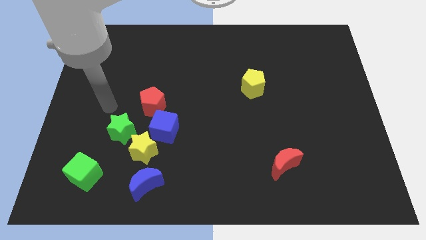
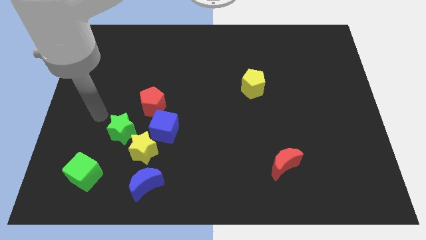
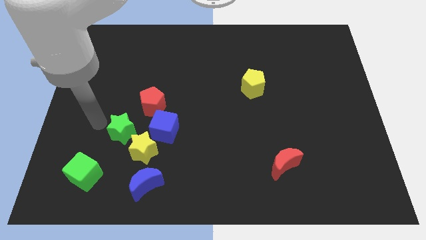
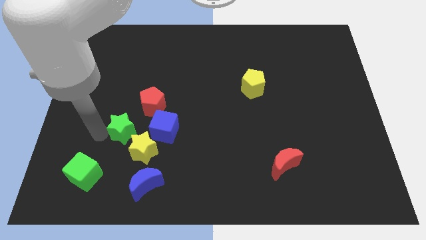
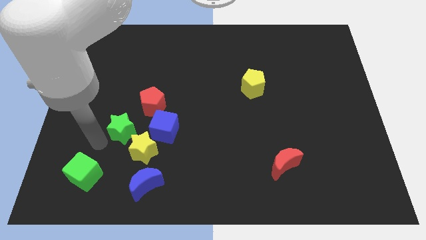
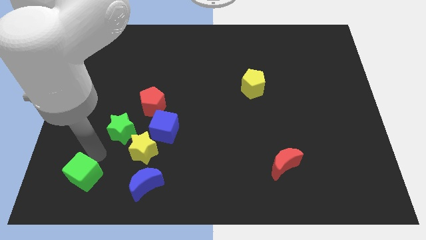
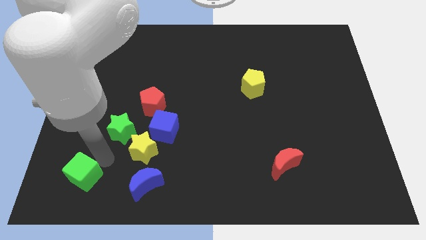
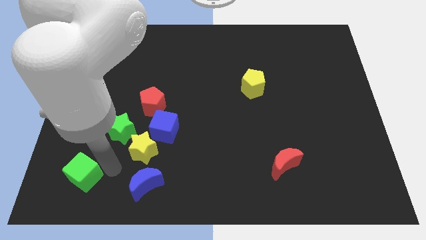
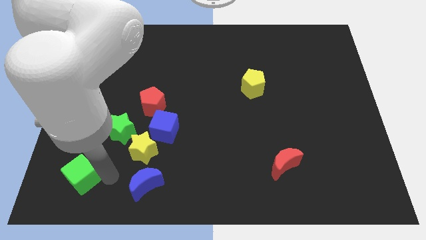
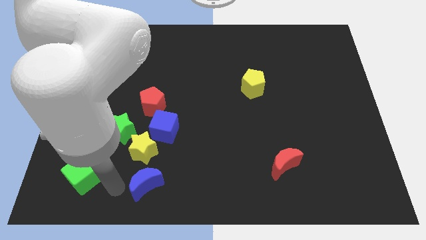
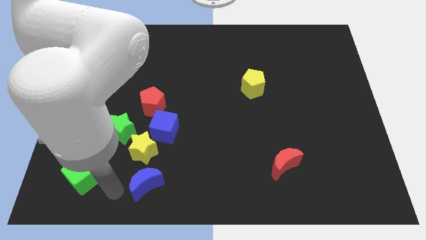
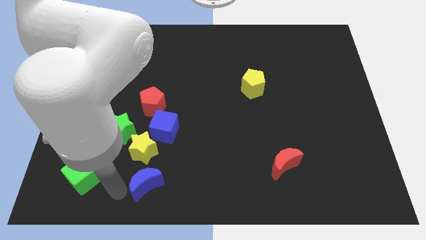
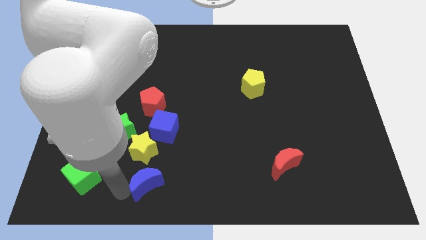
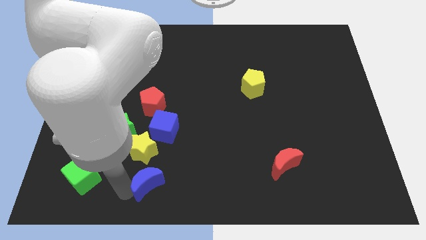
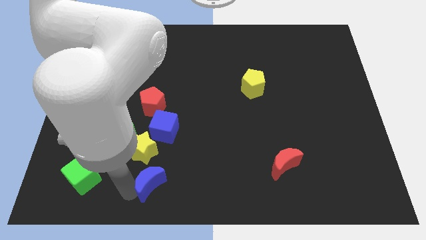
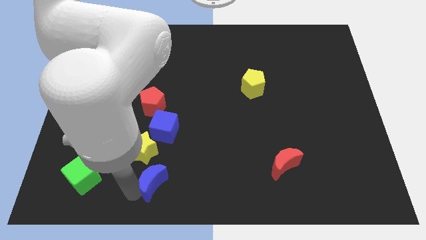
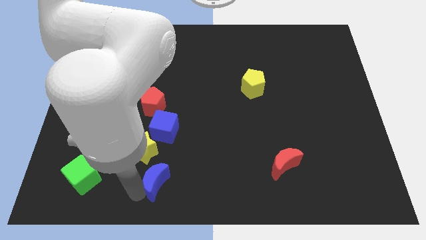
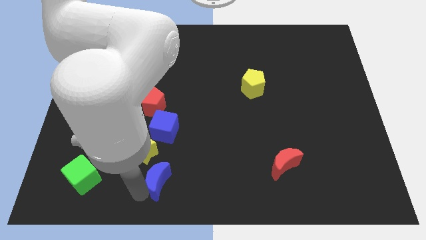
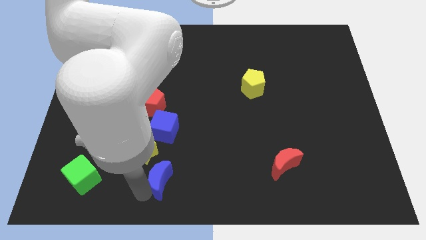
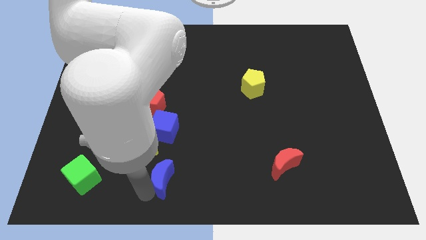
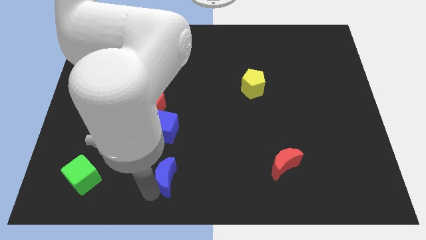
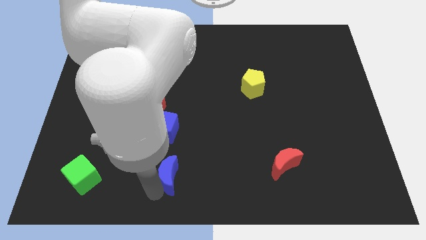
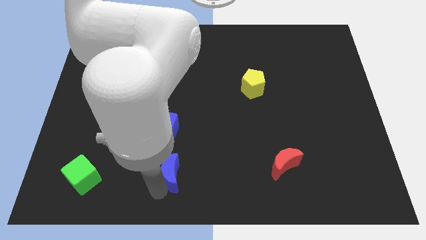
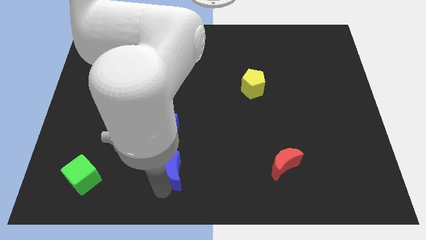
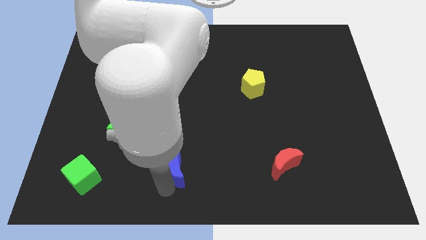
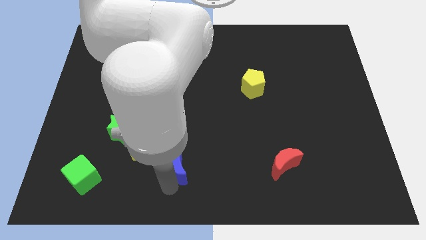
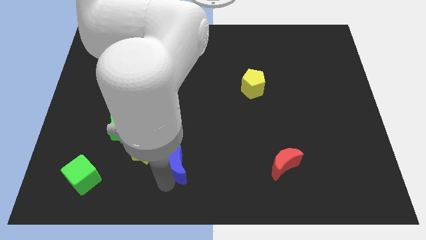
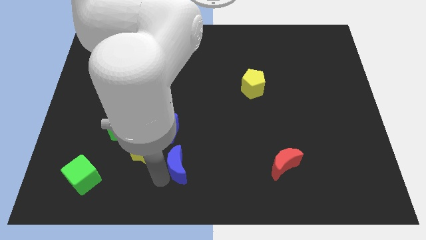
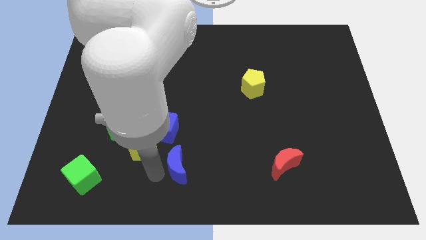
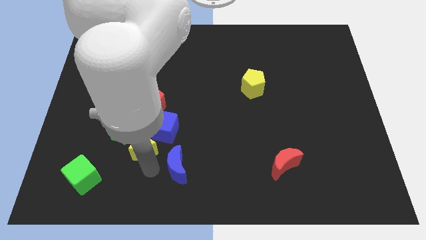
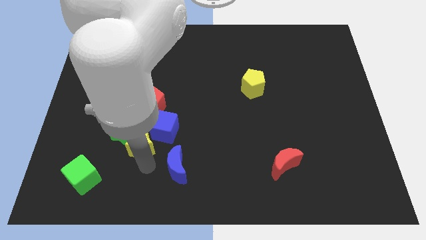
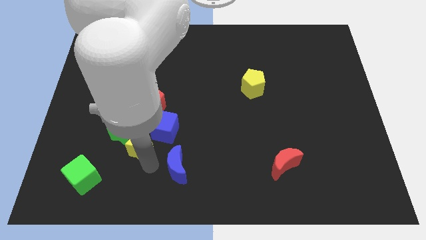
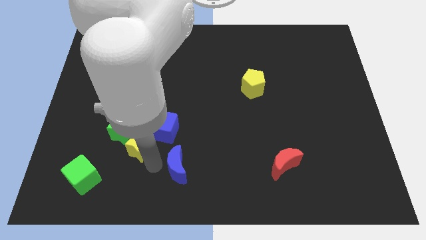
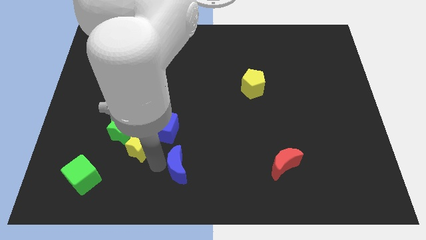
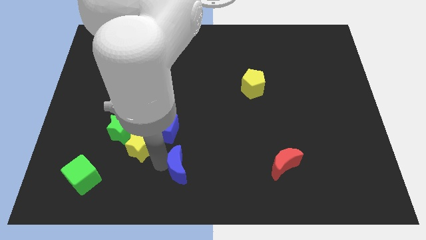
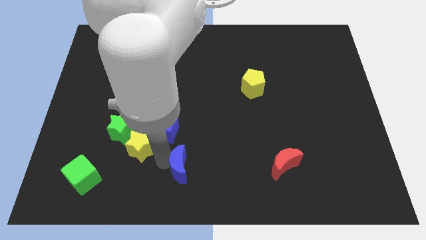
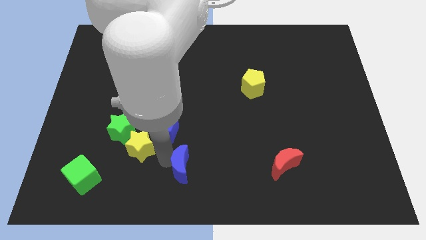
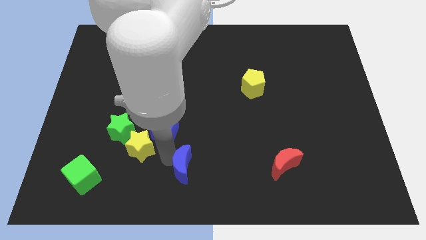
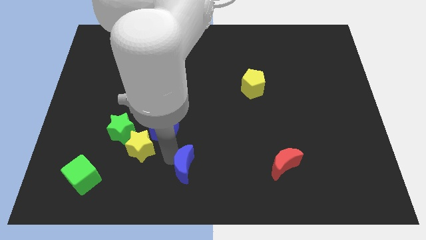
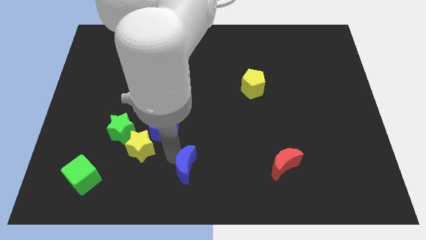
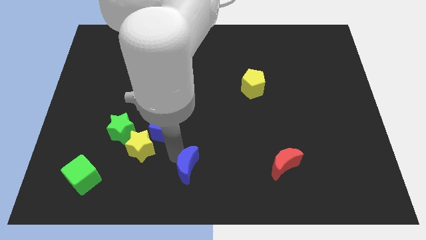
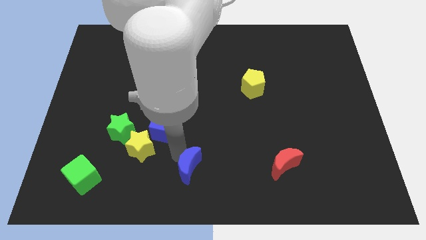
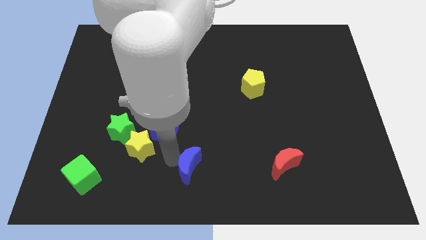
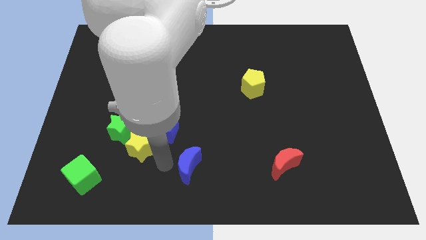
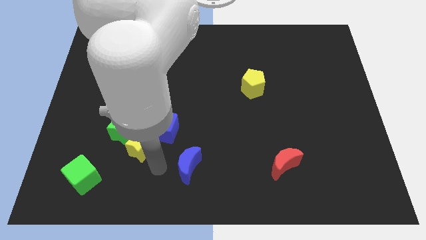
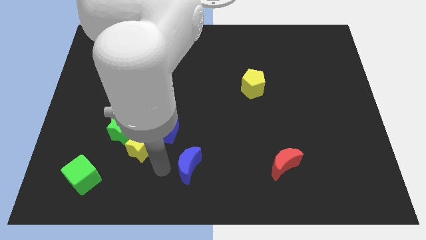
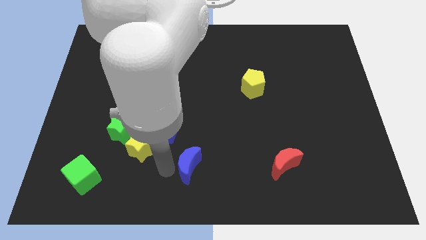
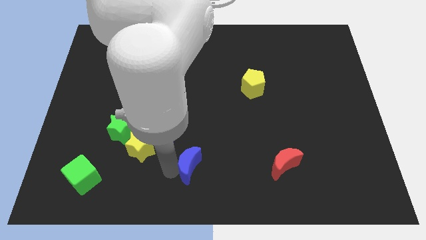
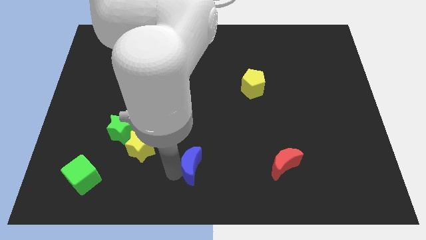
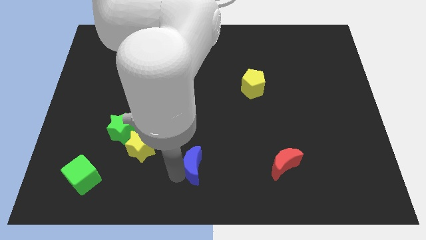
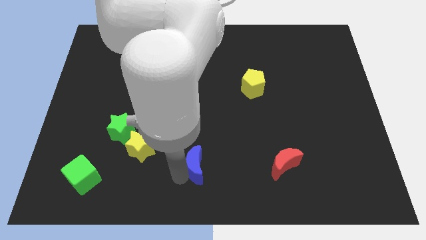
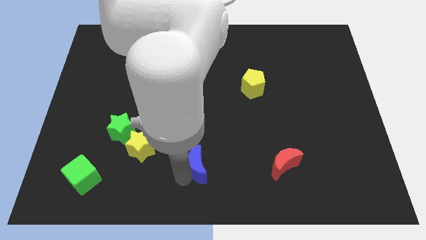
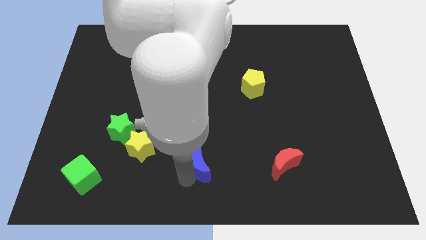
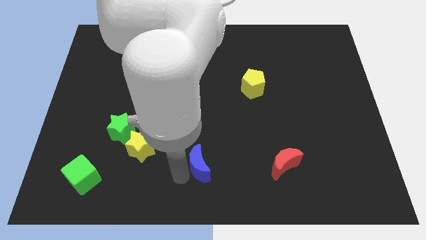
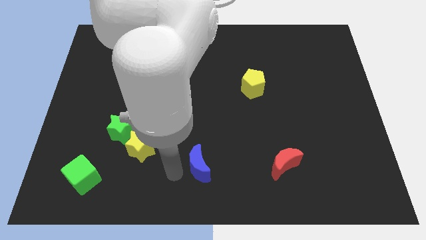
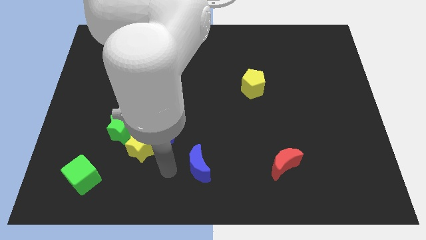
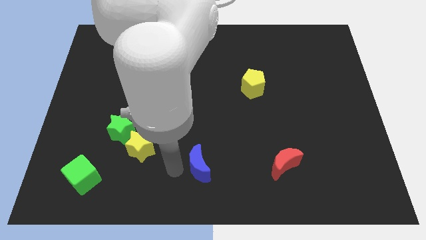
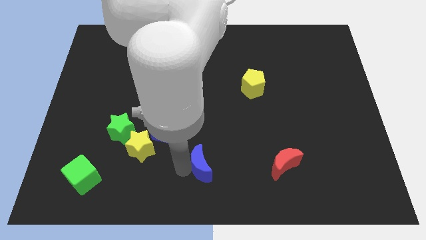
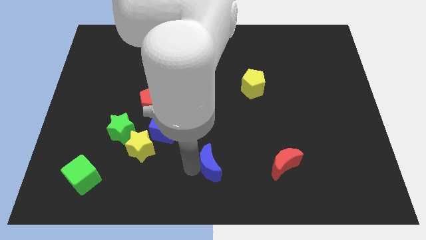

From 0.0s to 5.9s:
put the blue moon left of the red moon

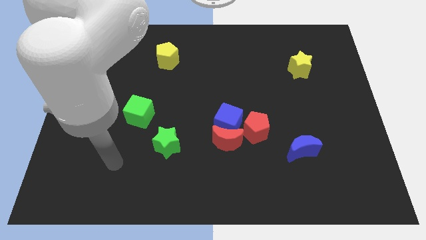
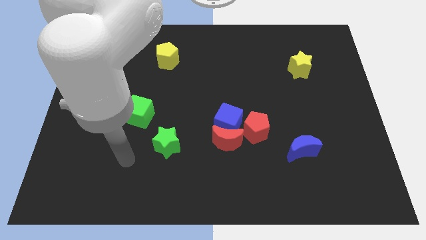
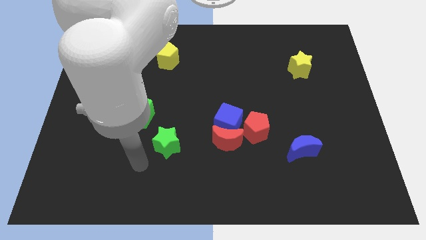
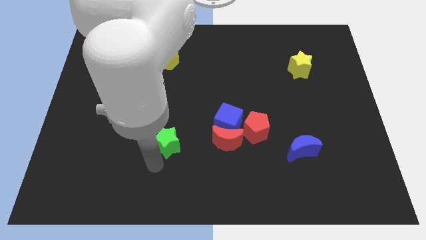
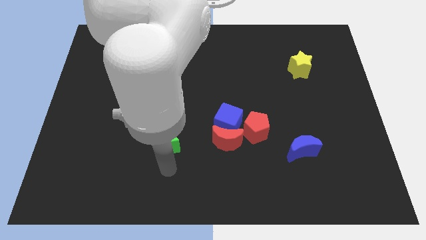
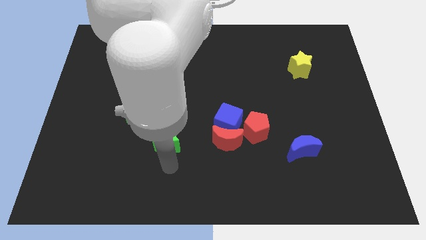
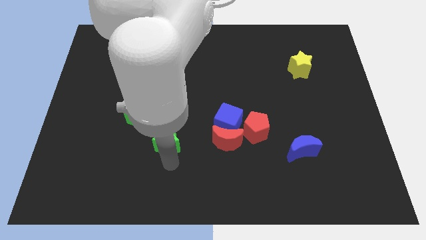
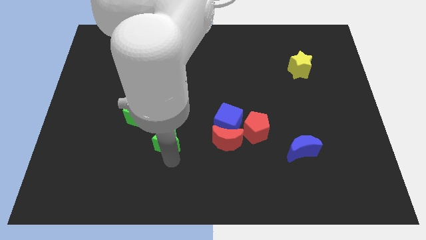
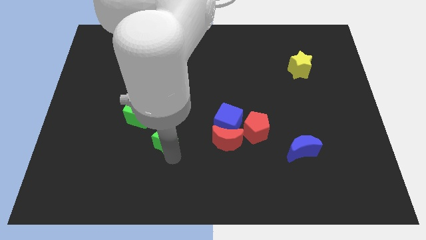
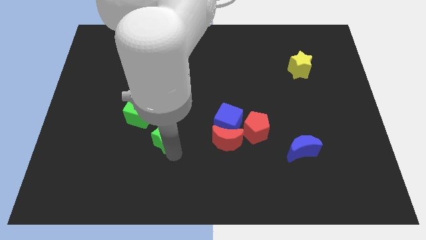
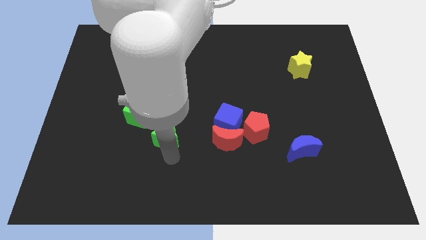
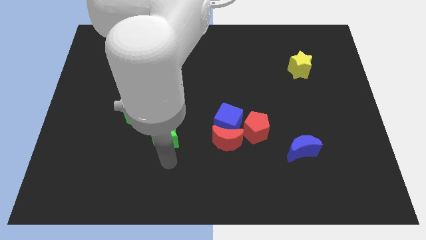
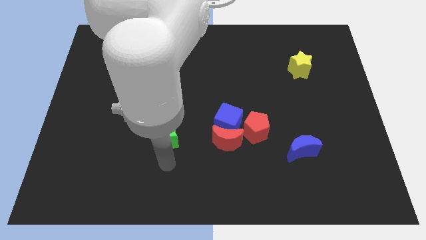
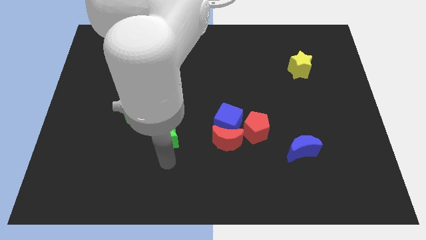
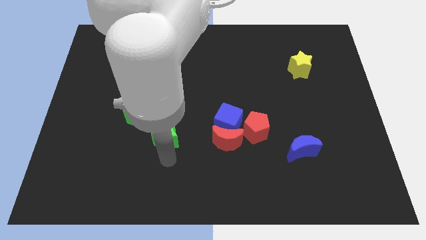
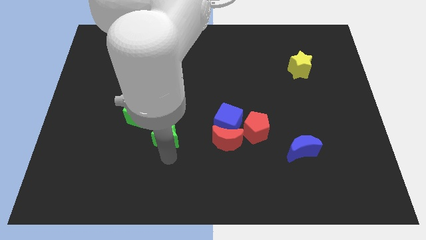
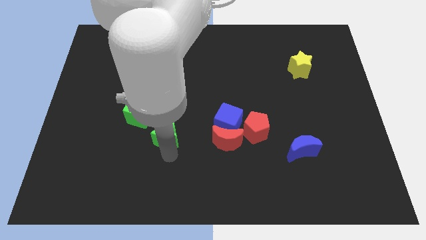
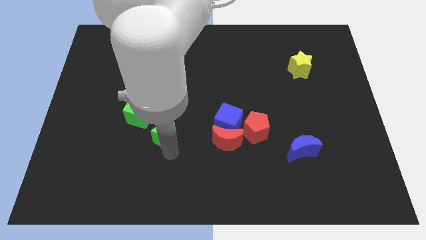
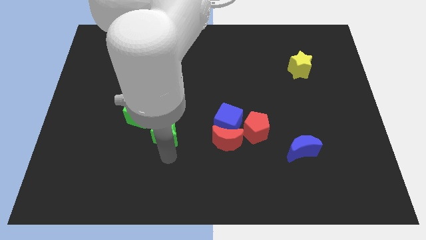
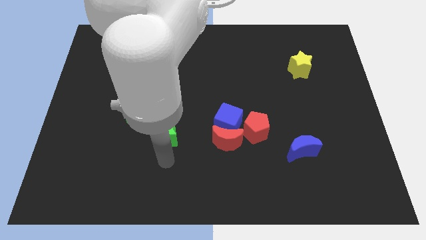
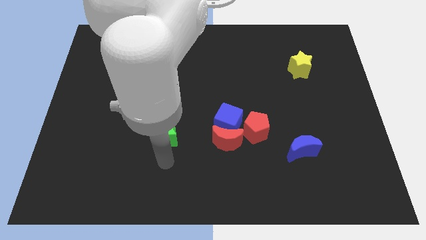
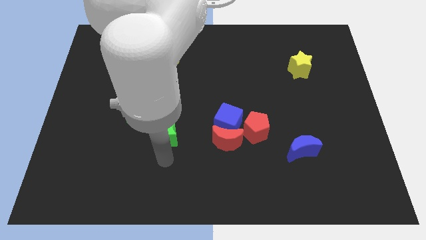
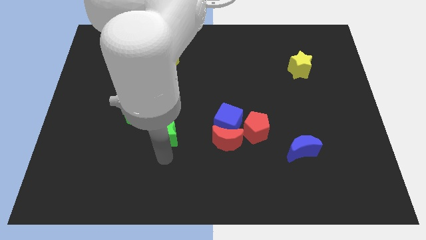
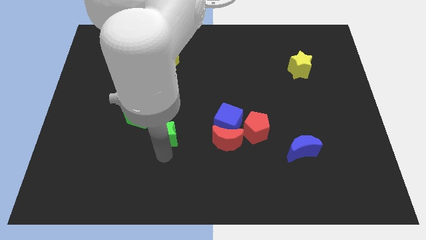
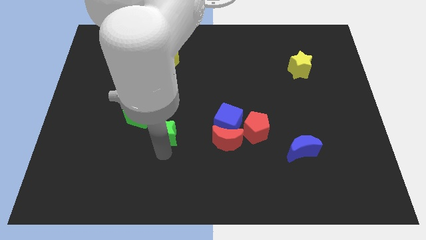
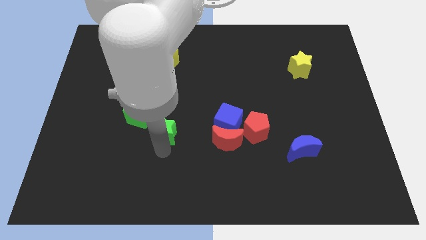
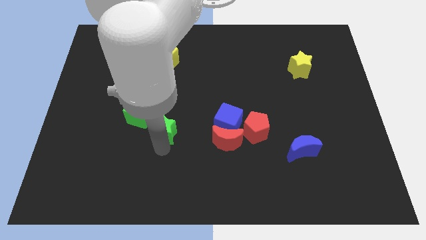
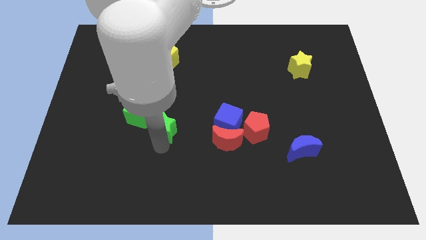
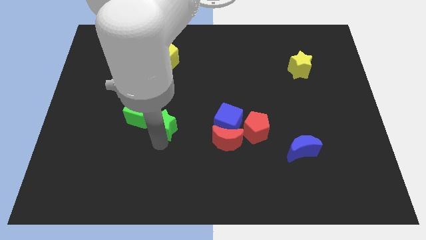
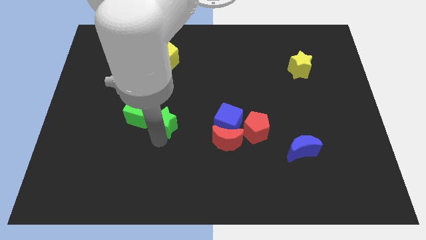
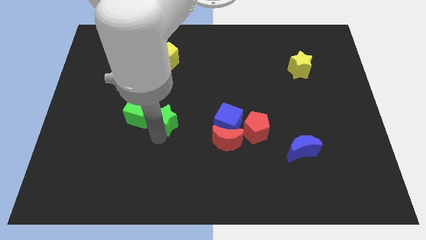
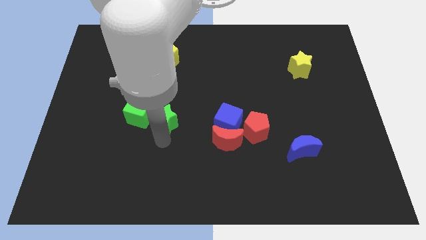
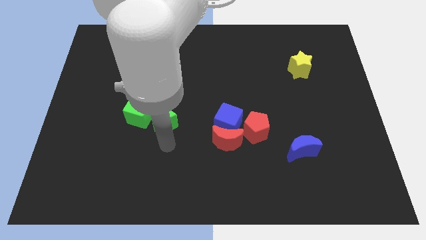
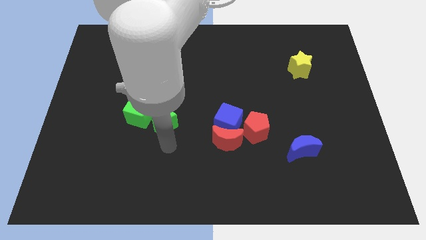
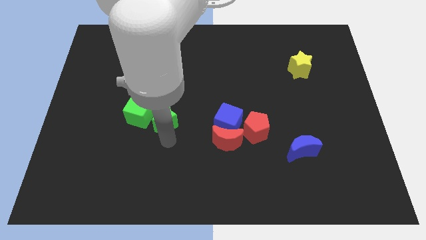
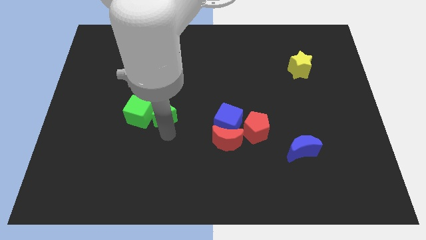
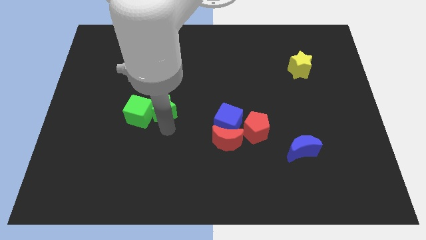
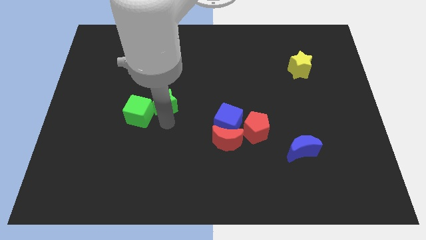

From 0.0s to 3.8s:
slide the green star to the bottom side of the yellow pentagon
